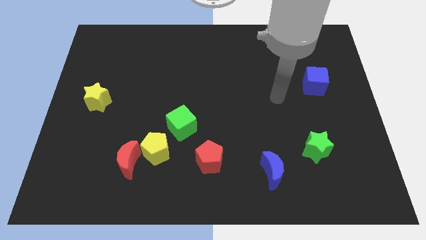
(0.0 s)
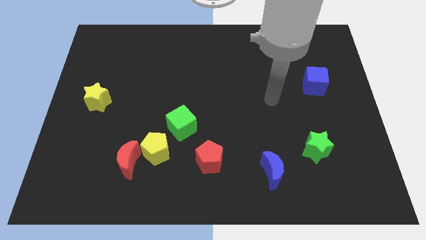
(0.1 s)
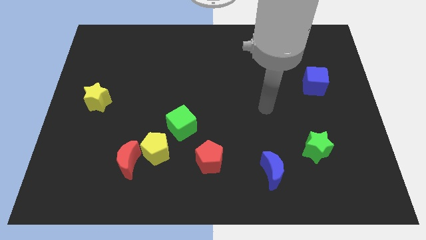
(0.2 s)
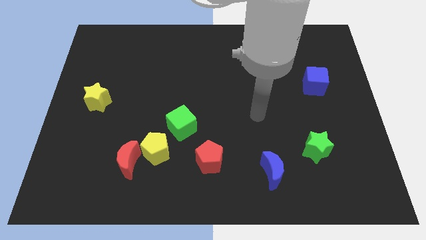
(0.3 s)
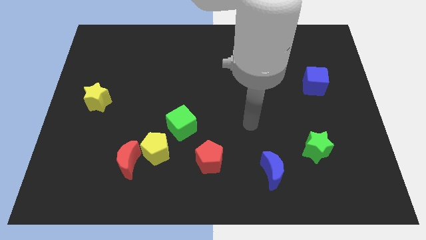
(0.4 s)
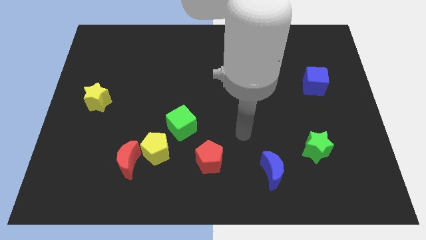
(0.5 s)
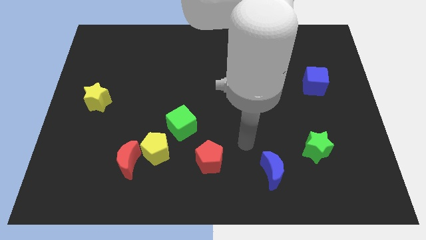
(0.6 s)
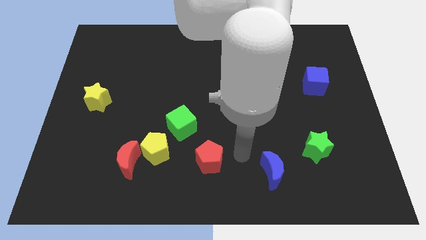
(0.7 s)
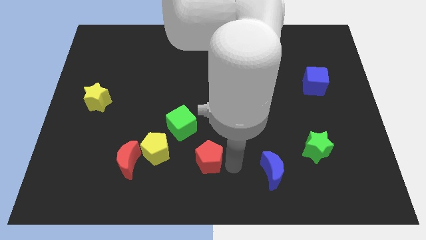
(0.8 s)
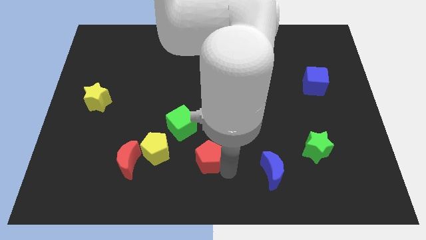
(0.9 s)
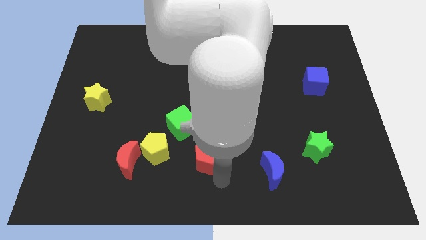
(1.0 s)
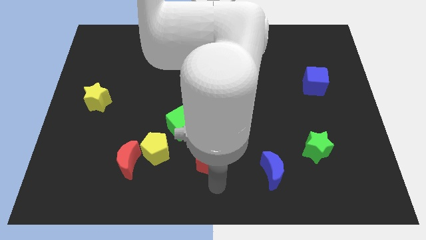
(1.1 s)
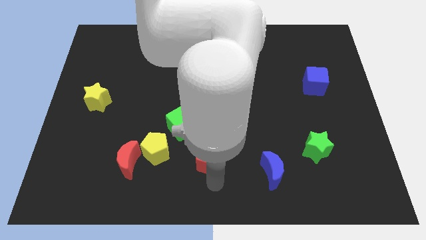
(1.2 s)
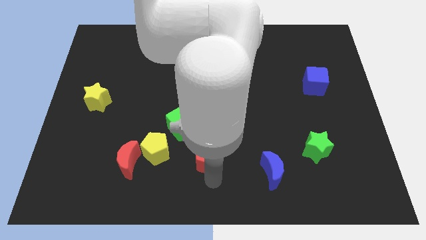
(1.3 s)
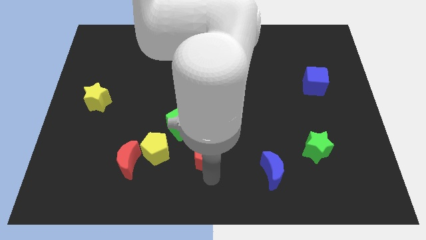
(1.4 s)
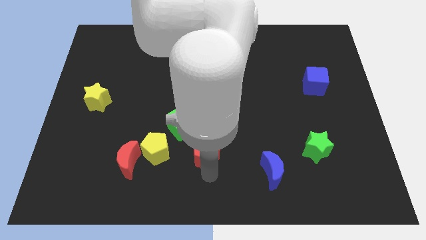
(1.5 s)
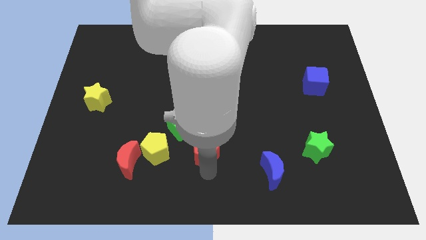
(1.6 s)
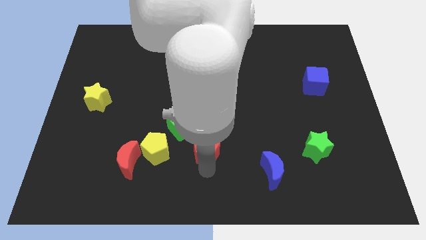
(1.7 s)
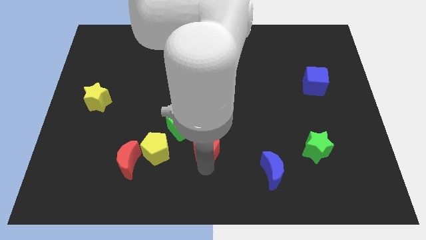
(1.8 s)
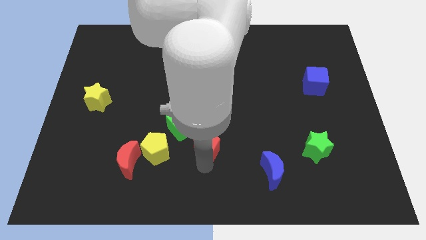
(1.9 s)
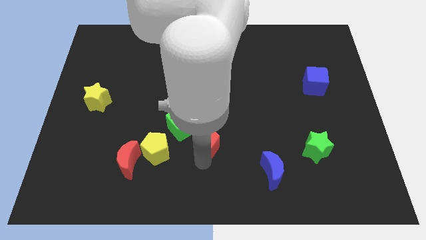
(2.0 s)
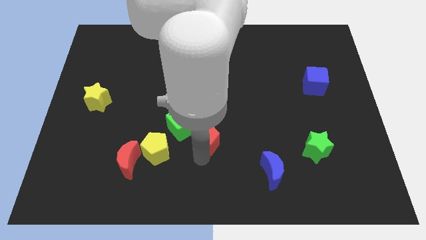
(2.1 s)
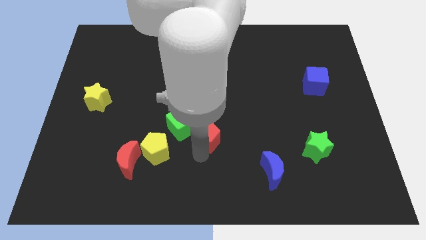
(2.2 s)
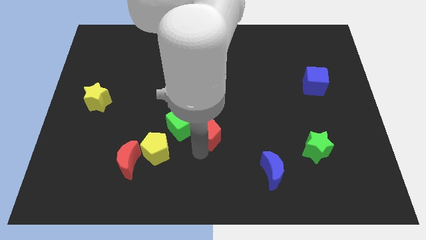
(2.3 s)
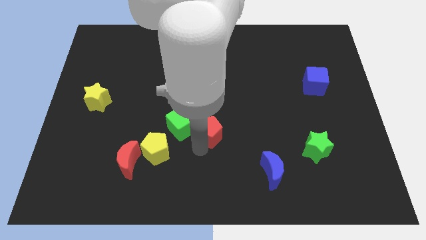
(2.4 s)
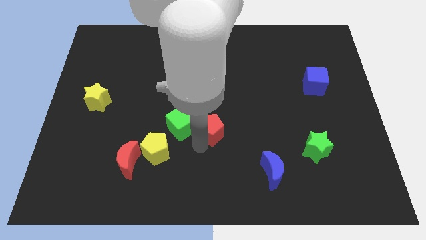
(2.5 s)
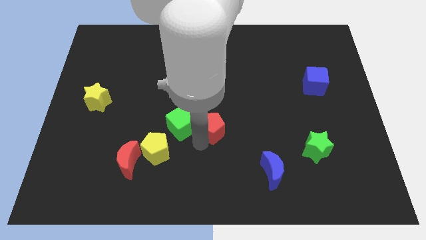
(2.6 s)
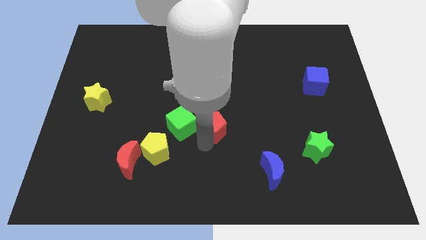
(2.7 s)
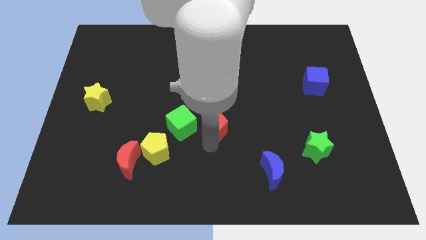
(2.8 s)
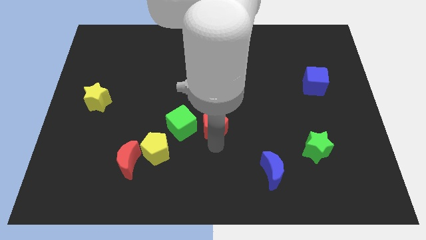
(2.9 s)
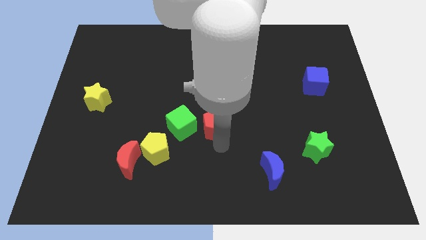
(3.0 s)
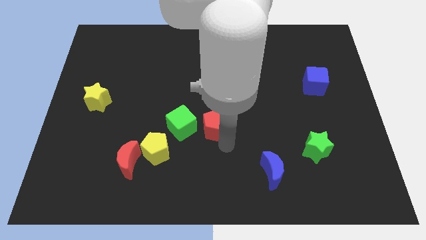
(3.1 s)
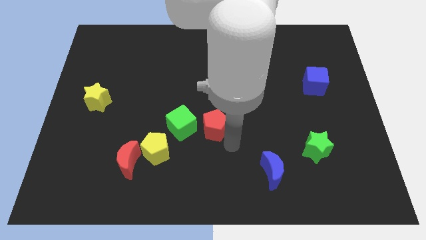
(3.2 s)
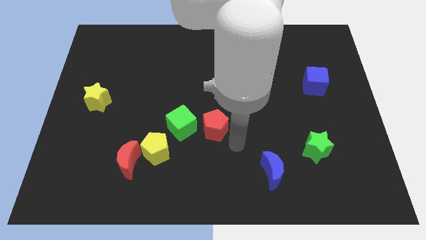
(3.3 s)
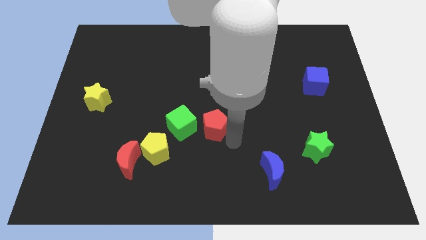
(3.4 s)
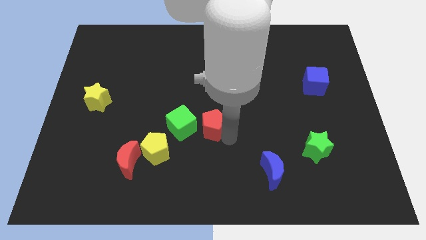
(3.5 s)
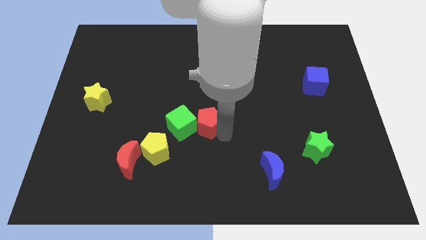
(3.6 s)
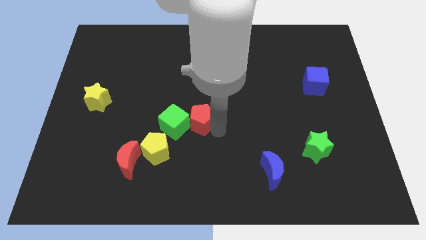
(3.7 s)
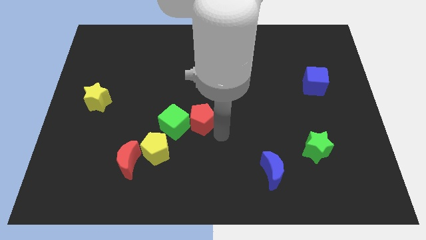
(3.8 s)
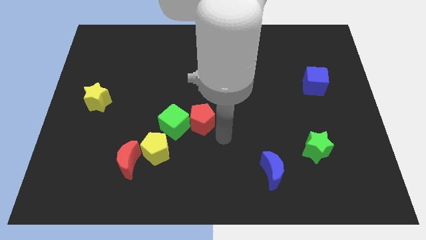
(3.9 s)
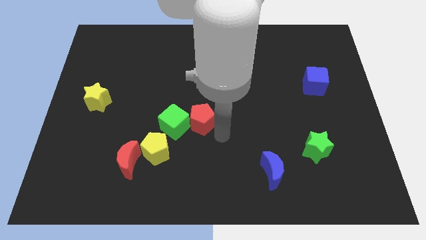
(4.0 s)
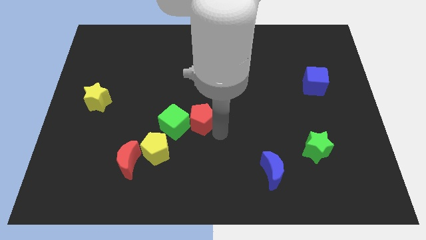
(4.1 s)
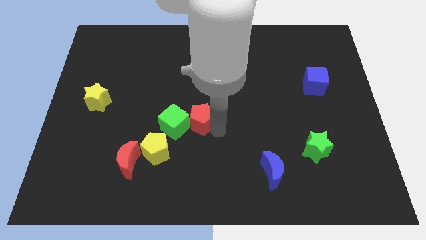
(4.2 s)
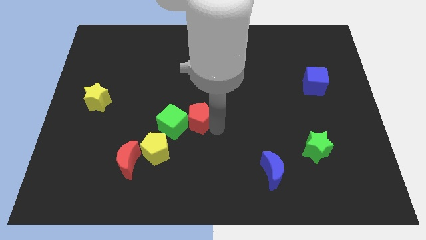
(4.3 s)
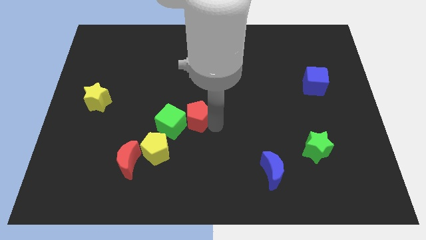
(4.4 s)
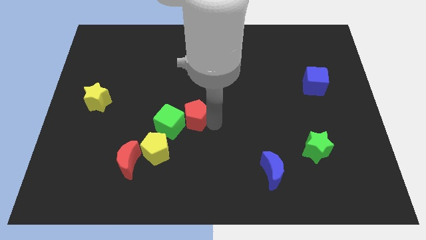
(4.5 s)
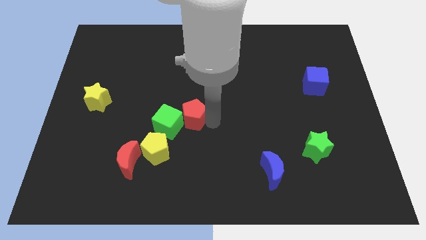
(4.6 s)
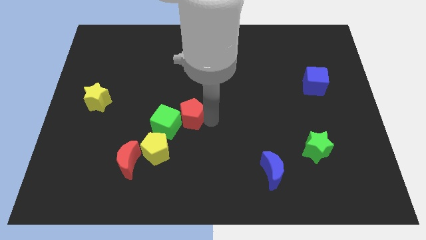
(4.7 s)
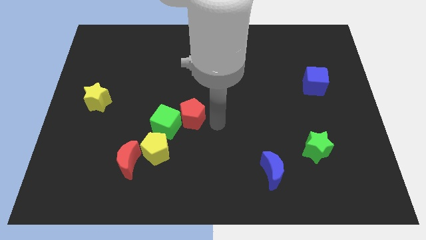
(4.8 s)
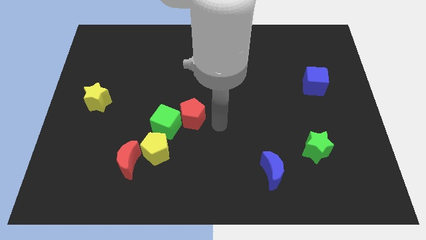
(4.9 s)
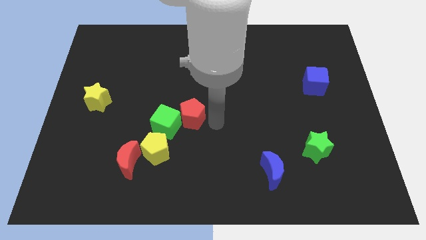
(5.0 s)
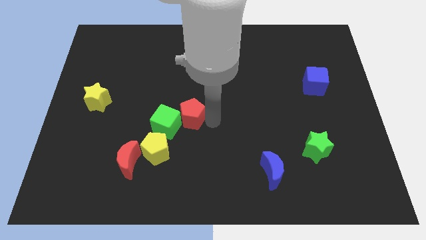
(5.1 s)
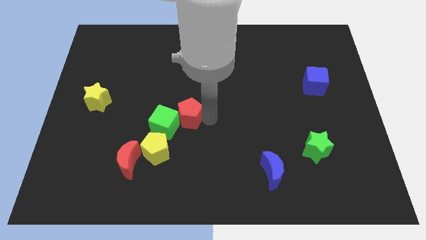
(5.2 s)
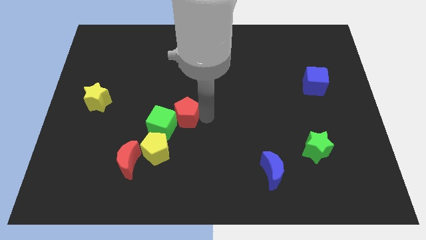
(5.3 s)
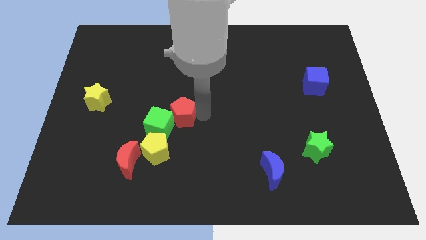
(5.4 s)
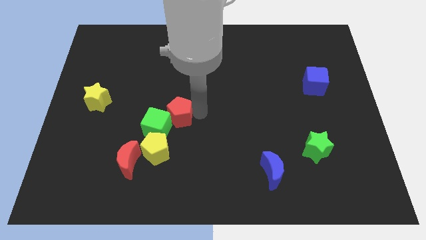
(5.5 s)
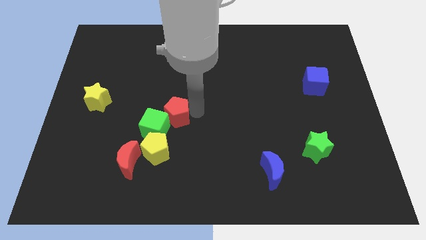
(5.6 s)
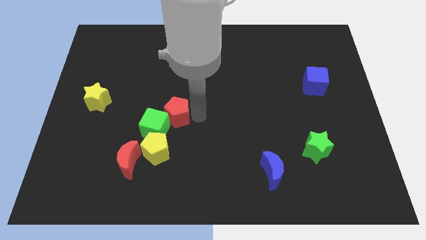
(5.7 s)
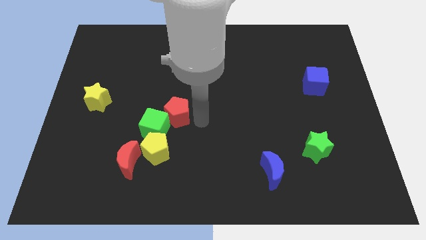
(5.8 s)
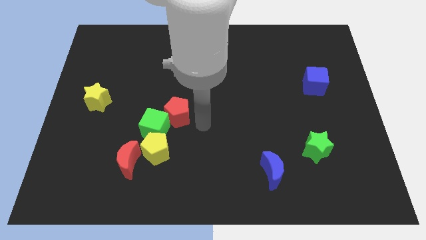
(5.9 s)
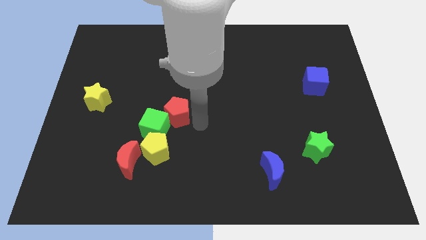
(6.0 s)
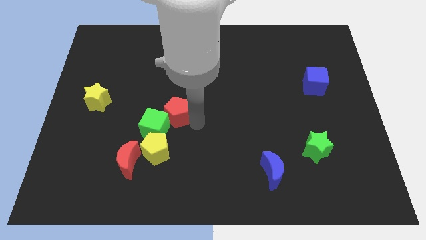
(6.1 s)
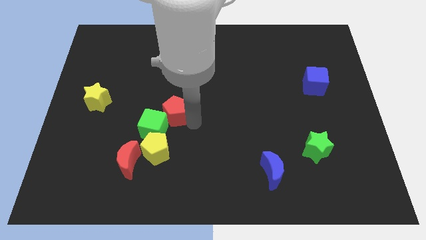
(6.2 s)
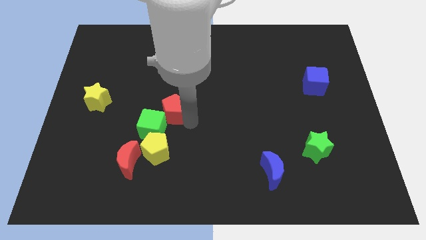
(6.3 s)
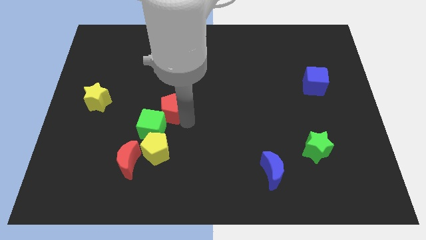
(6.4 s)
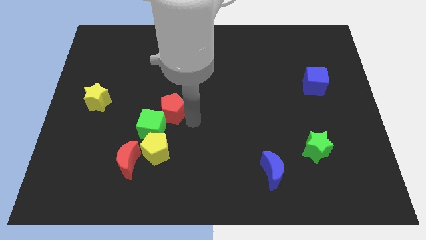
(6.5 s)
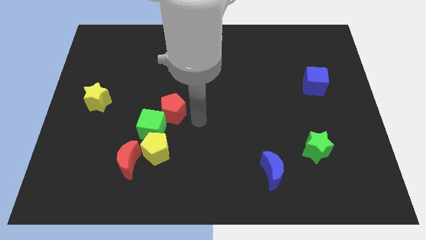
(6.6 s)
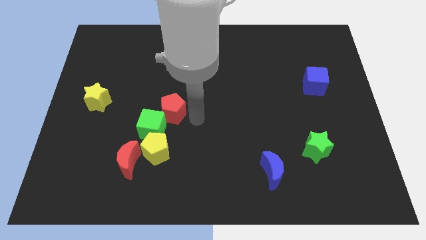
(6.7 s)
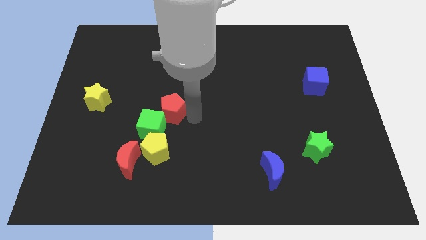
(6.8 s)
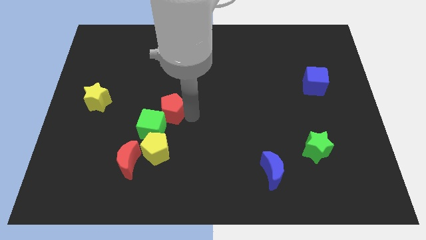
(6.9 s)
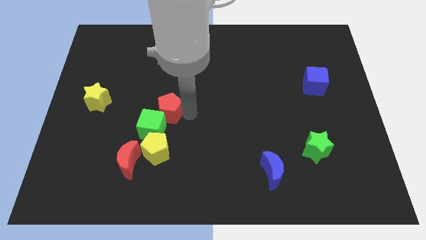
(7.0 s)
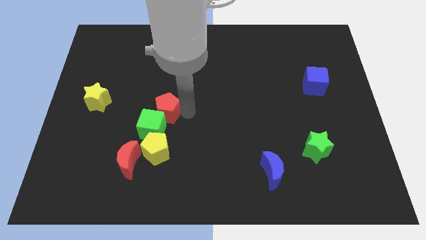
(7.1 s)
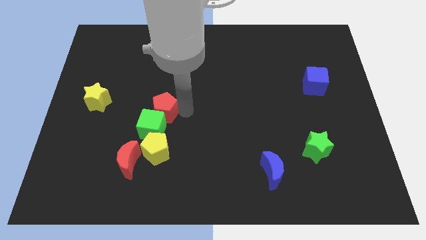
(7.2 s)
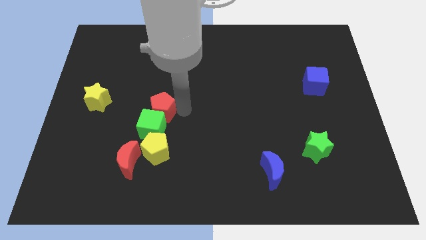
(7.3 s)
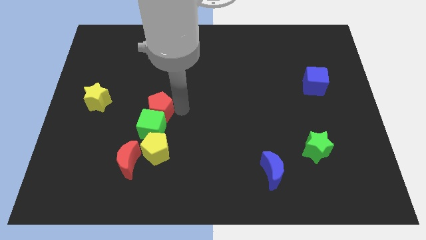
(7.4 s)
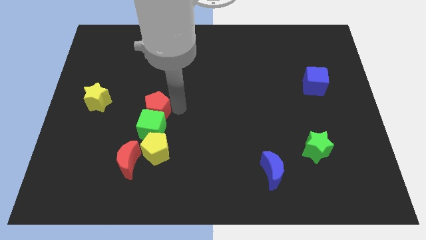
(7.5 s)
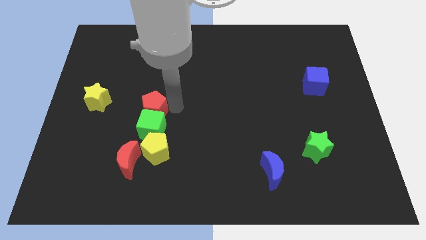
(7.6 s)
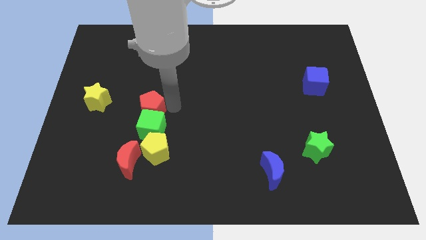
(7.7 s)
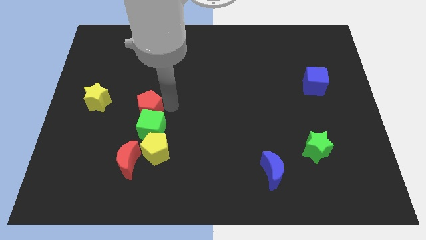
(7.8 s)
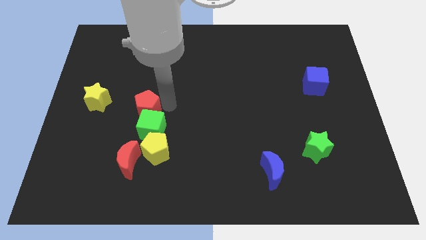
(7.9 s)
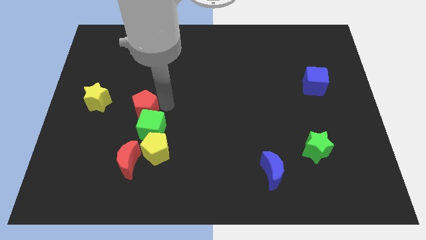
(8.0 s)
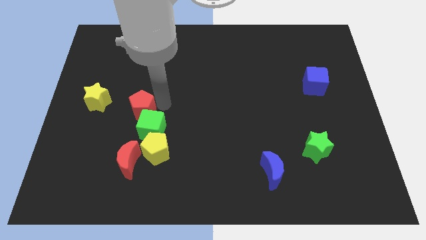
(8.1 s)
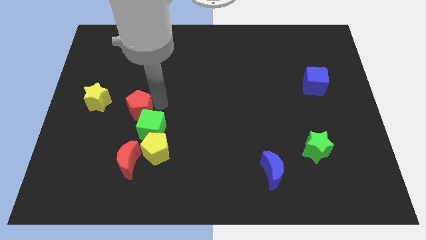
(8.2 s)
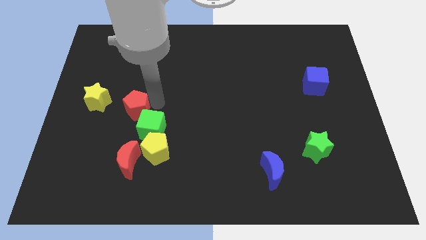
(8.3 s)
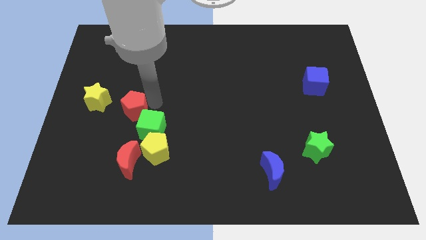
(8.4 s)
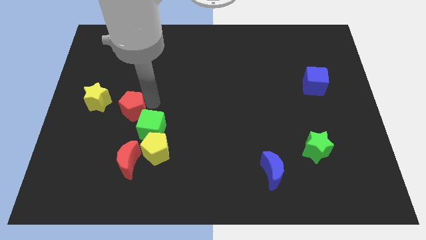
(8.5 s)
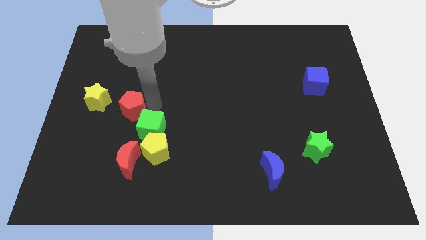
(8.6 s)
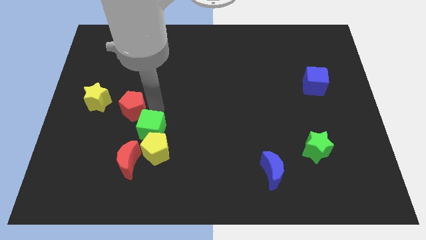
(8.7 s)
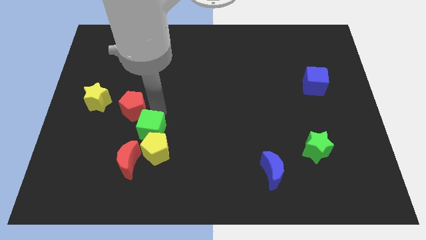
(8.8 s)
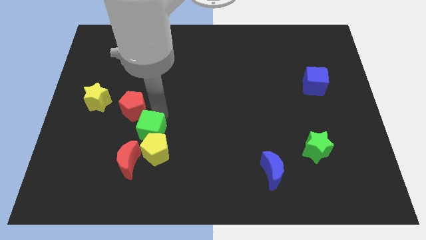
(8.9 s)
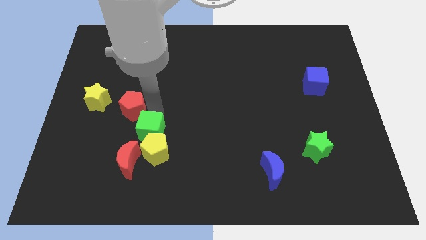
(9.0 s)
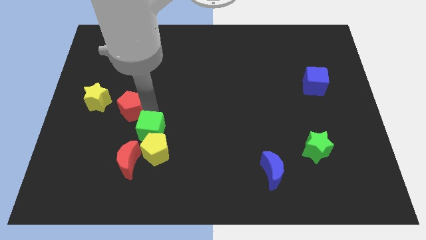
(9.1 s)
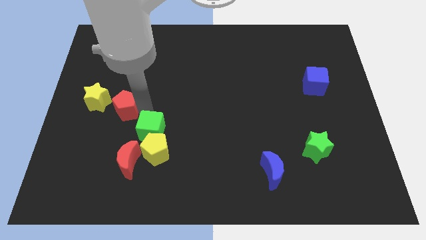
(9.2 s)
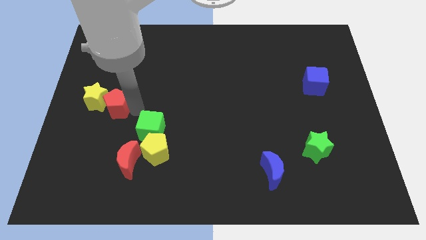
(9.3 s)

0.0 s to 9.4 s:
move the red pentagon close to the yellow star
